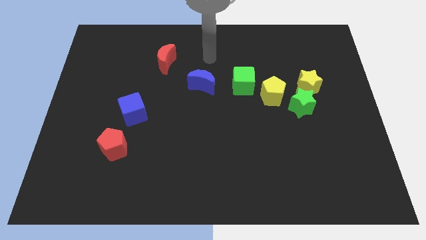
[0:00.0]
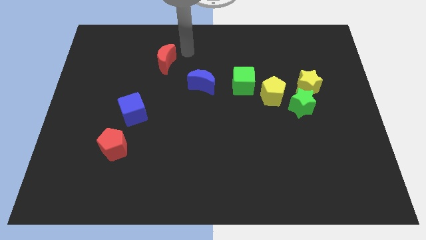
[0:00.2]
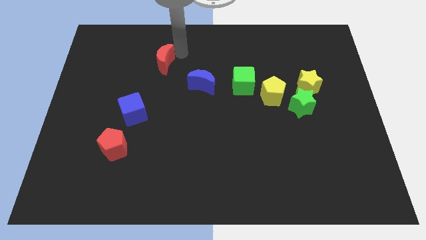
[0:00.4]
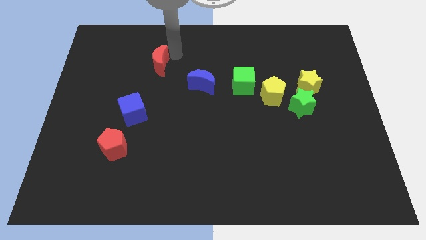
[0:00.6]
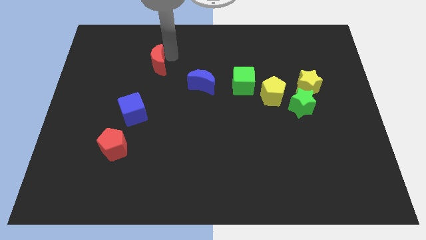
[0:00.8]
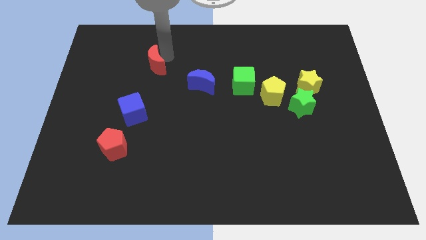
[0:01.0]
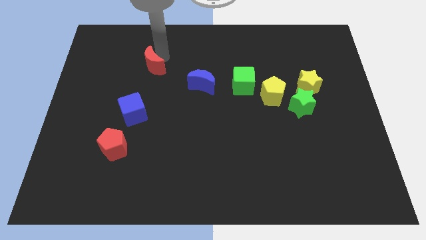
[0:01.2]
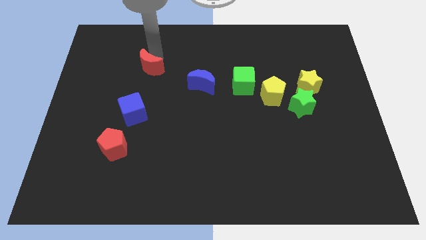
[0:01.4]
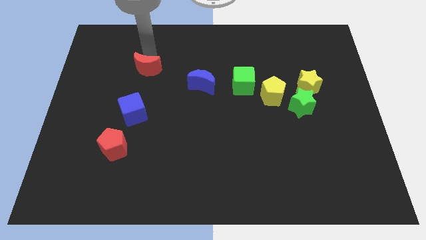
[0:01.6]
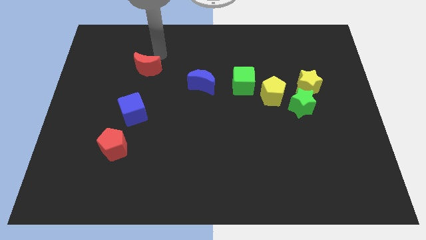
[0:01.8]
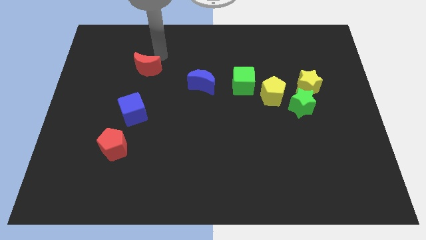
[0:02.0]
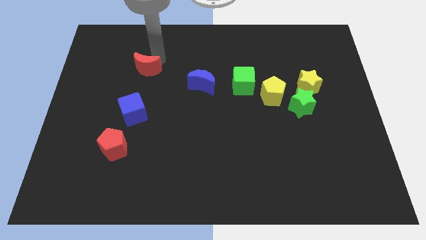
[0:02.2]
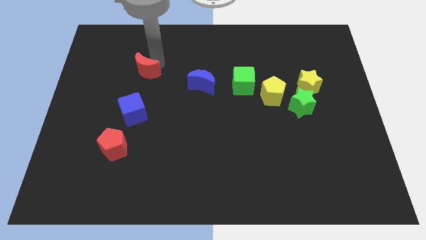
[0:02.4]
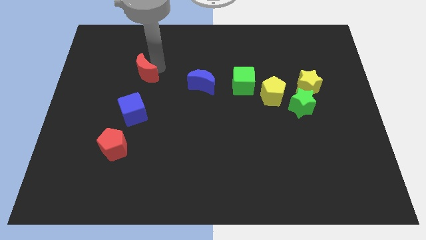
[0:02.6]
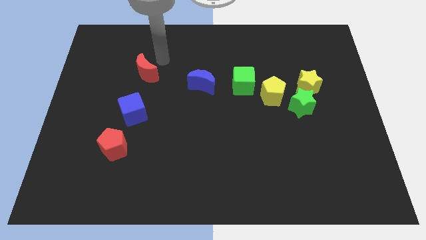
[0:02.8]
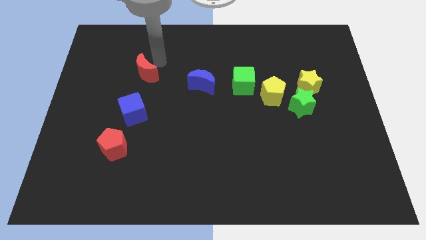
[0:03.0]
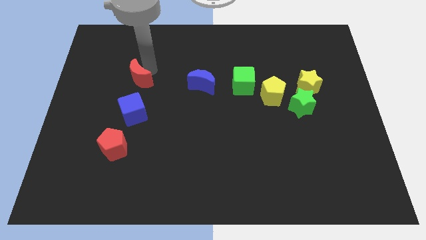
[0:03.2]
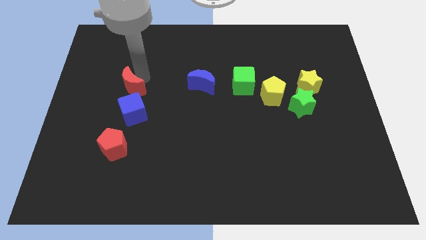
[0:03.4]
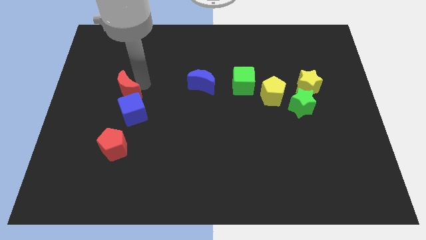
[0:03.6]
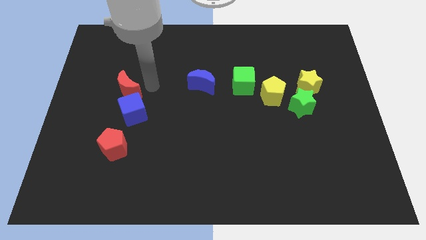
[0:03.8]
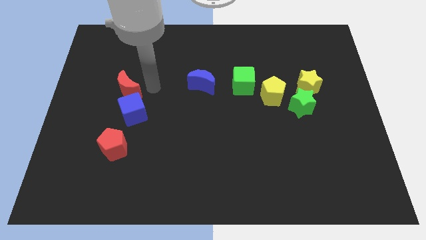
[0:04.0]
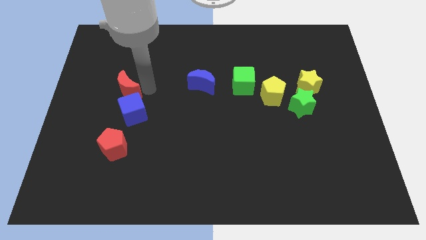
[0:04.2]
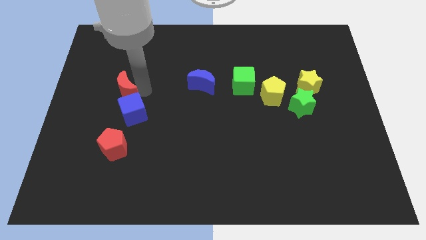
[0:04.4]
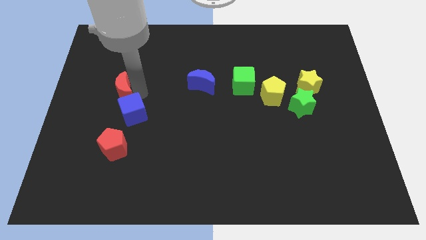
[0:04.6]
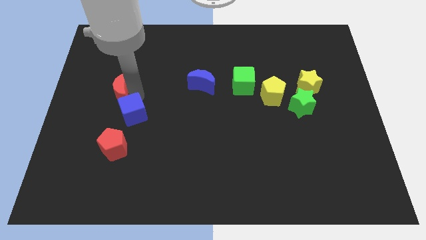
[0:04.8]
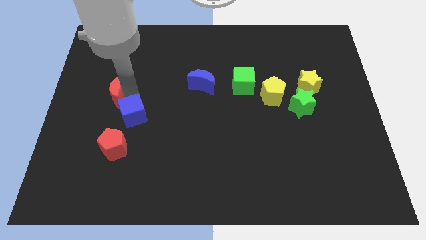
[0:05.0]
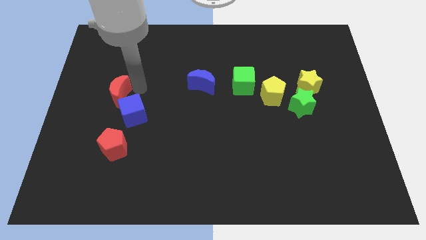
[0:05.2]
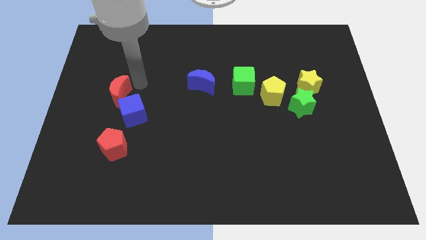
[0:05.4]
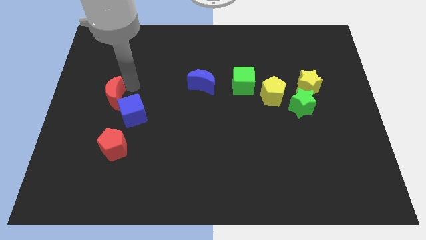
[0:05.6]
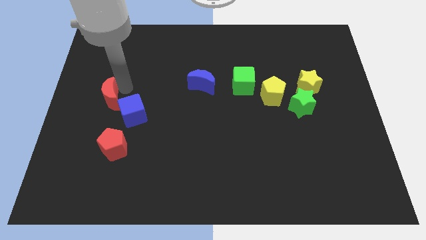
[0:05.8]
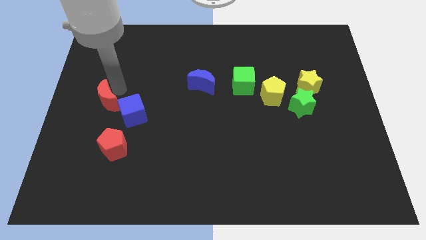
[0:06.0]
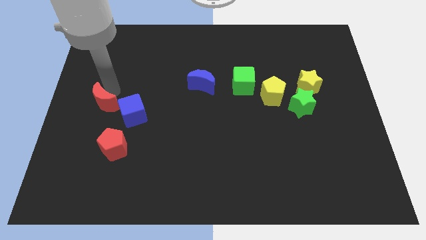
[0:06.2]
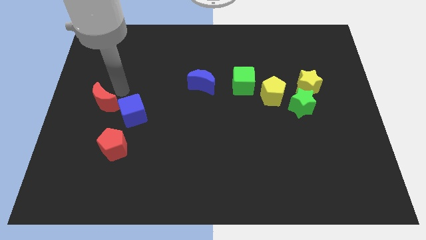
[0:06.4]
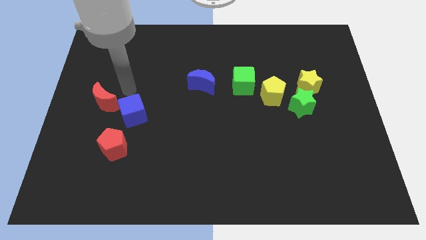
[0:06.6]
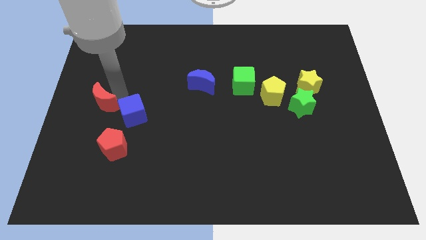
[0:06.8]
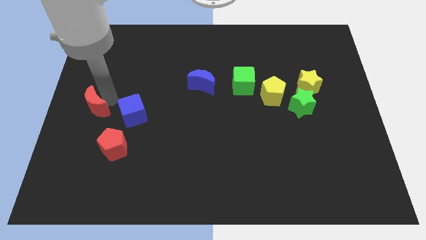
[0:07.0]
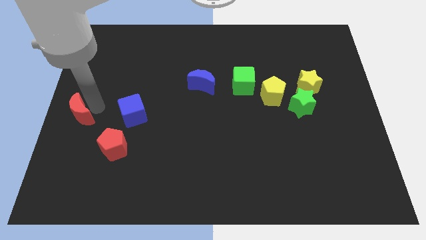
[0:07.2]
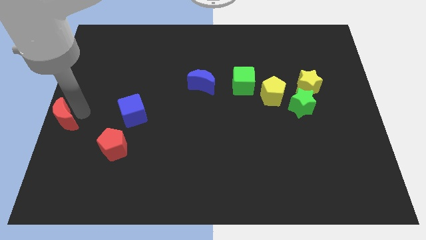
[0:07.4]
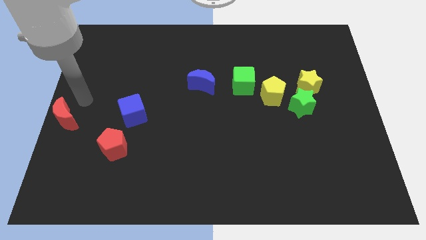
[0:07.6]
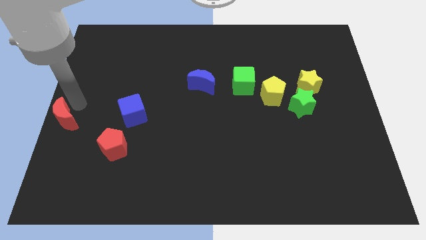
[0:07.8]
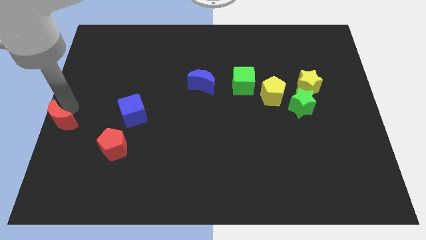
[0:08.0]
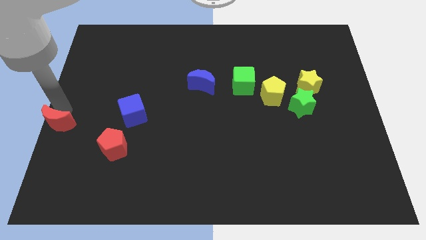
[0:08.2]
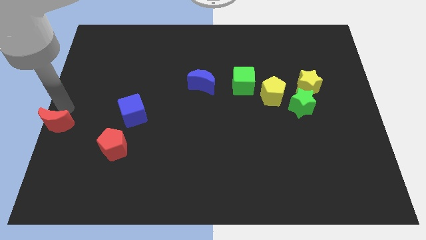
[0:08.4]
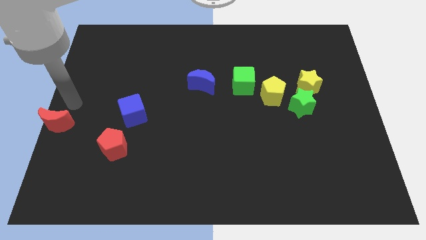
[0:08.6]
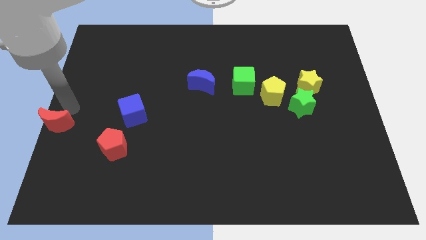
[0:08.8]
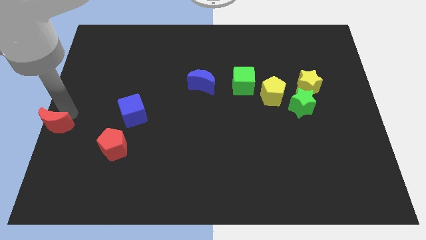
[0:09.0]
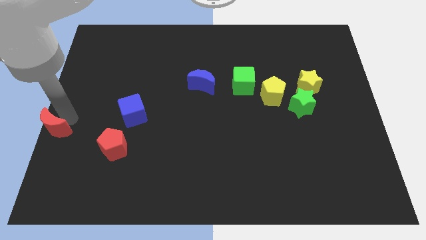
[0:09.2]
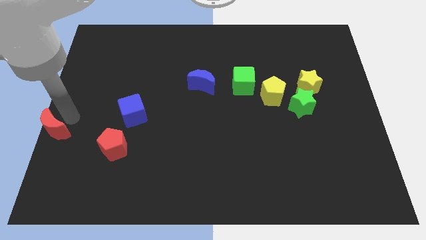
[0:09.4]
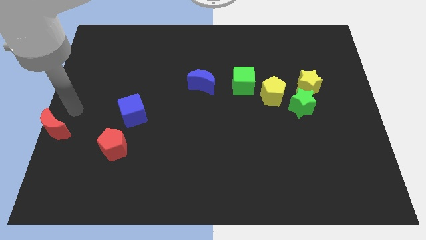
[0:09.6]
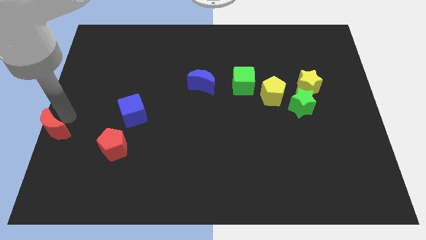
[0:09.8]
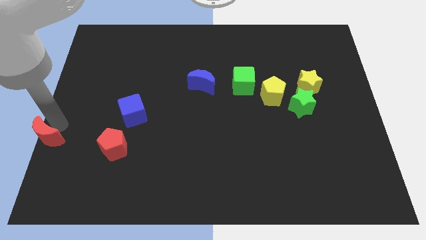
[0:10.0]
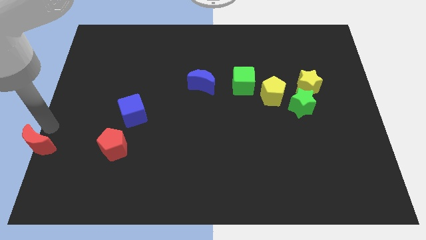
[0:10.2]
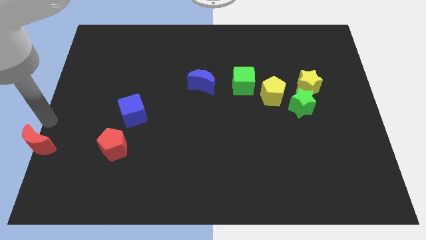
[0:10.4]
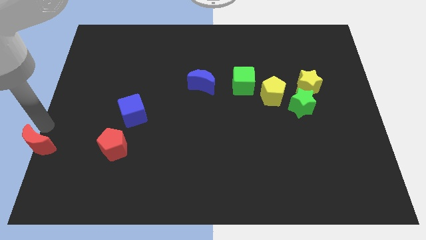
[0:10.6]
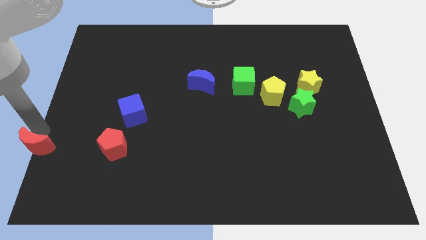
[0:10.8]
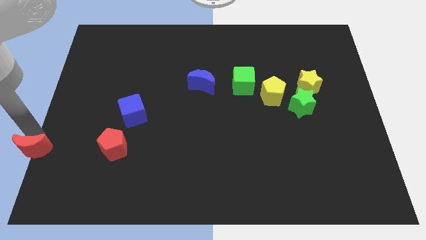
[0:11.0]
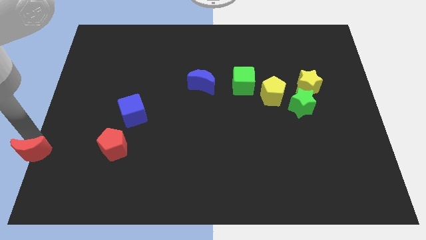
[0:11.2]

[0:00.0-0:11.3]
move the red moon to the lower left corner

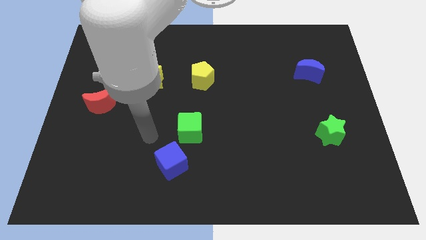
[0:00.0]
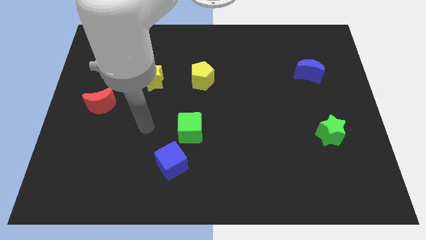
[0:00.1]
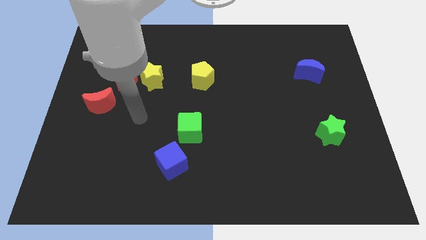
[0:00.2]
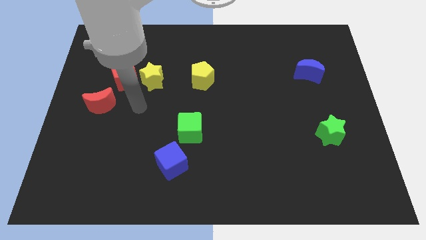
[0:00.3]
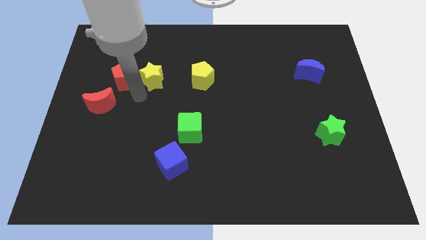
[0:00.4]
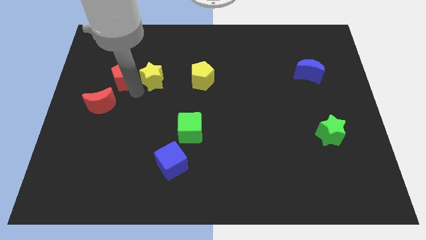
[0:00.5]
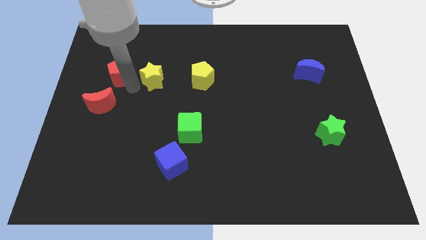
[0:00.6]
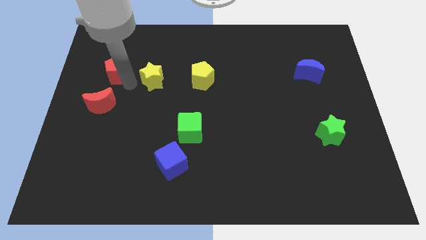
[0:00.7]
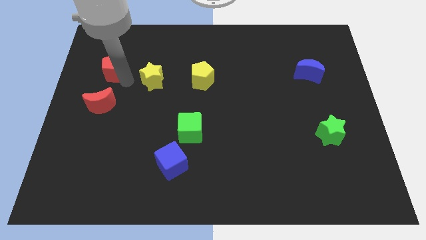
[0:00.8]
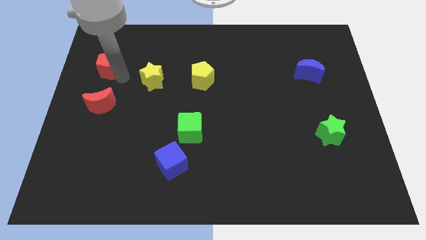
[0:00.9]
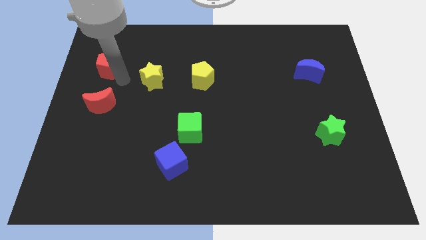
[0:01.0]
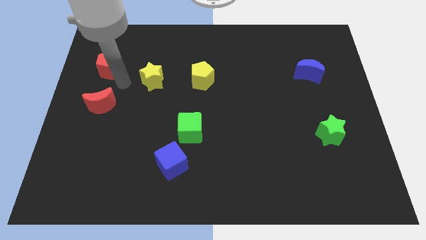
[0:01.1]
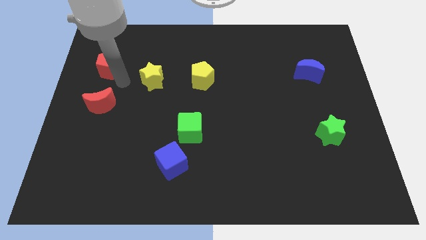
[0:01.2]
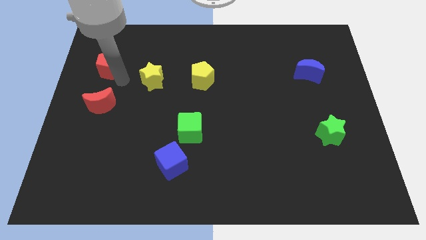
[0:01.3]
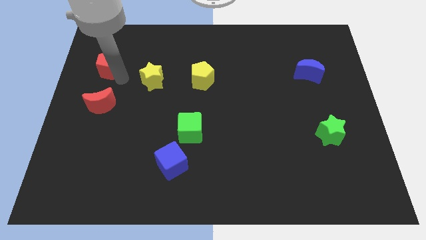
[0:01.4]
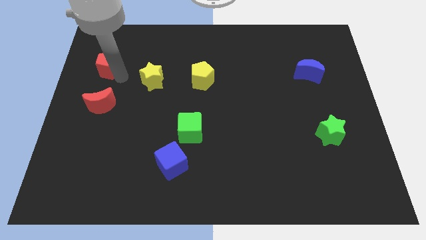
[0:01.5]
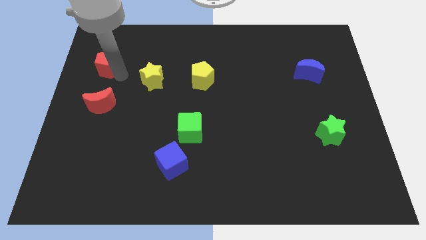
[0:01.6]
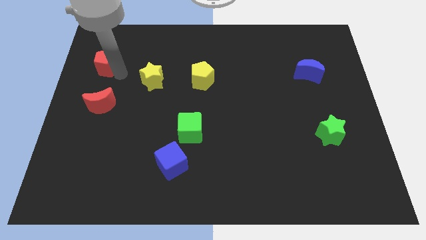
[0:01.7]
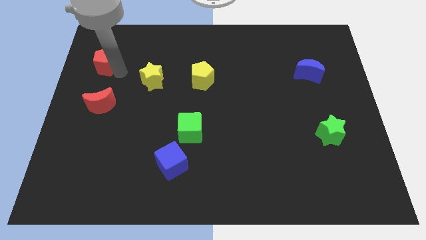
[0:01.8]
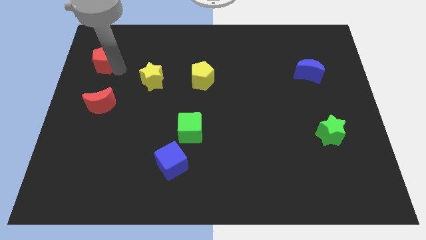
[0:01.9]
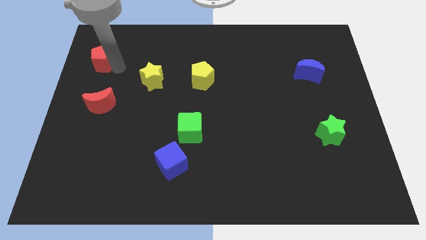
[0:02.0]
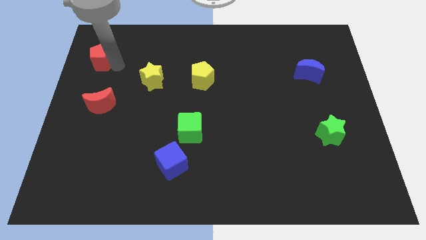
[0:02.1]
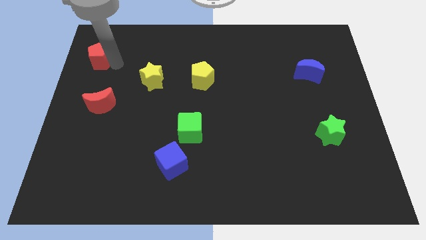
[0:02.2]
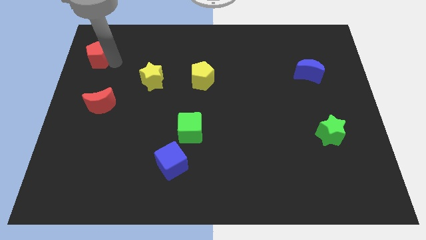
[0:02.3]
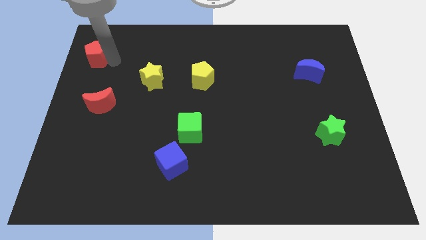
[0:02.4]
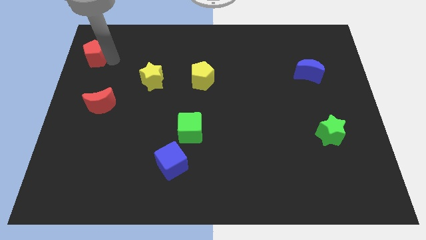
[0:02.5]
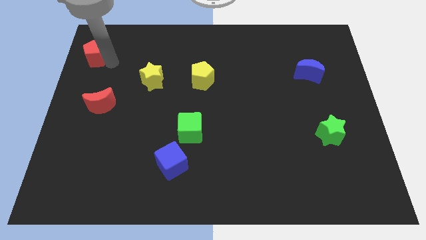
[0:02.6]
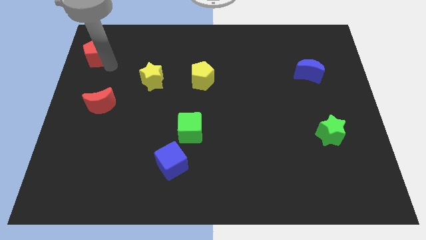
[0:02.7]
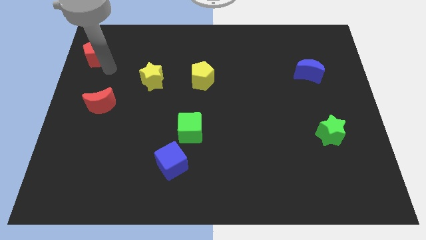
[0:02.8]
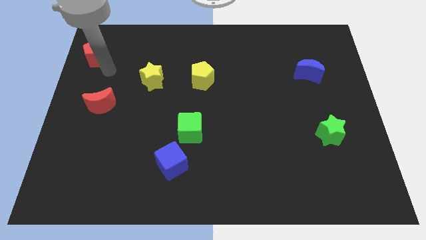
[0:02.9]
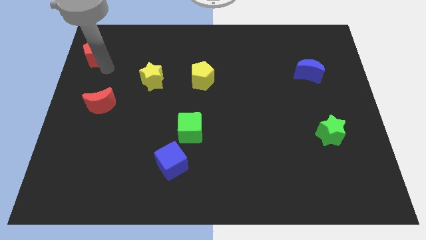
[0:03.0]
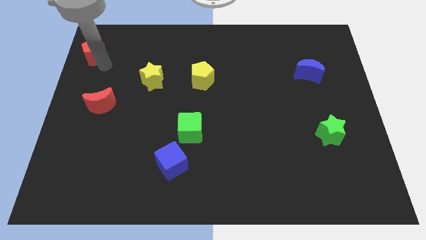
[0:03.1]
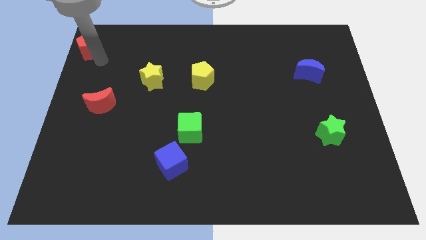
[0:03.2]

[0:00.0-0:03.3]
push the red pentagon to the top left corner
